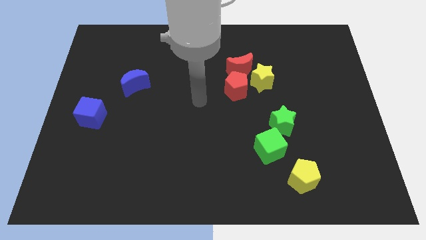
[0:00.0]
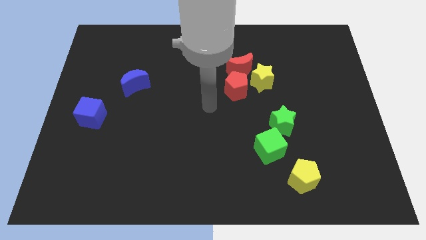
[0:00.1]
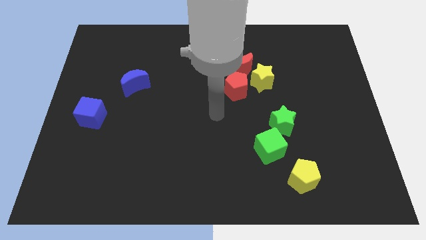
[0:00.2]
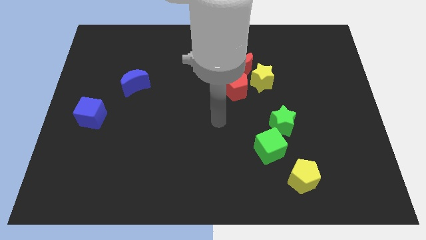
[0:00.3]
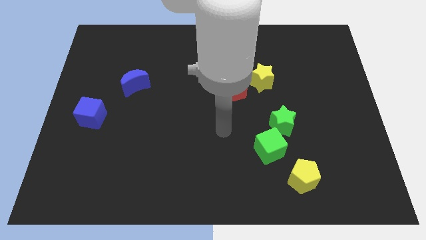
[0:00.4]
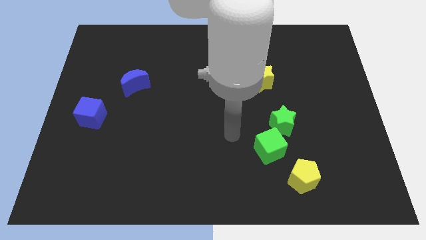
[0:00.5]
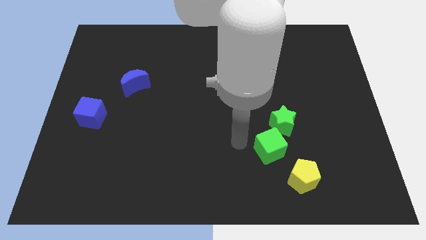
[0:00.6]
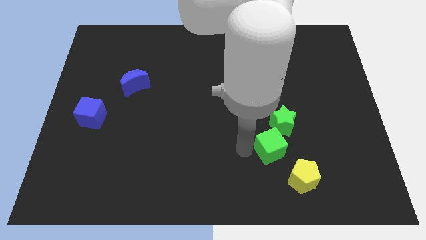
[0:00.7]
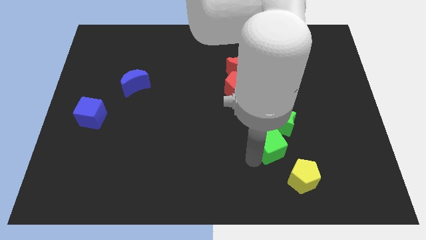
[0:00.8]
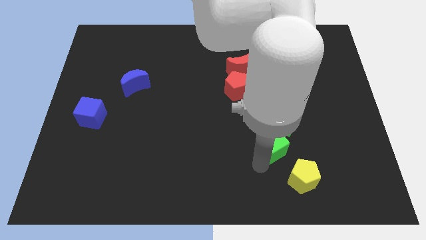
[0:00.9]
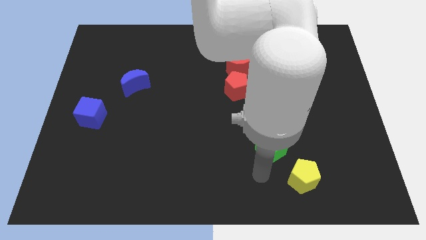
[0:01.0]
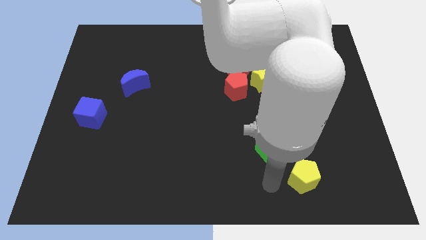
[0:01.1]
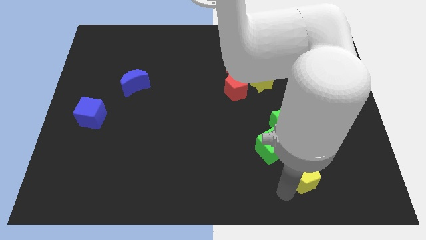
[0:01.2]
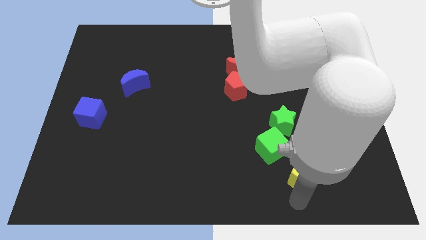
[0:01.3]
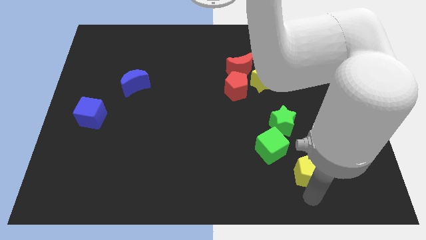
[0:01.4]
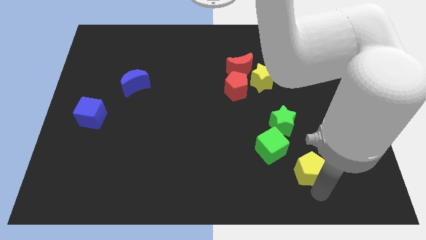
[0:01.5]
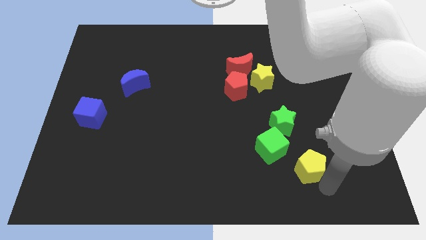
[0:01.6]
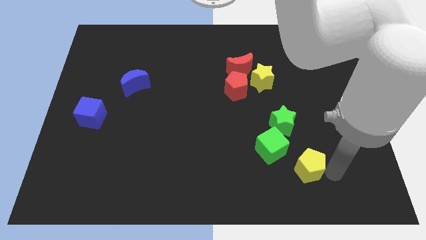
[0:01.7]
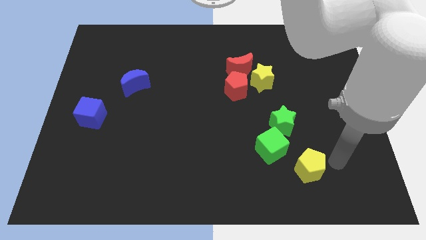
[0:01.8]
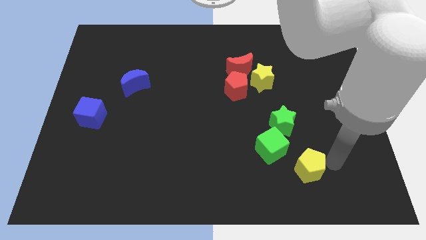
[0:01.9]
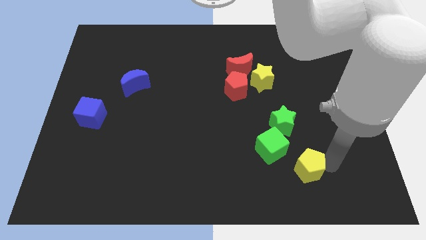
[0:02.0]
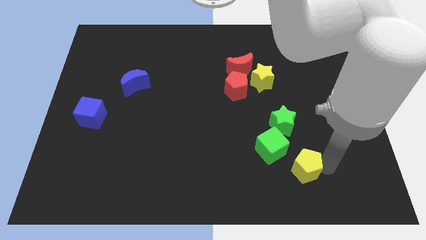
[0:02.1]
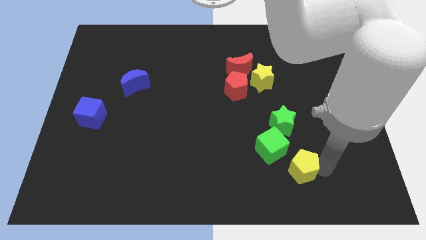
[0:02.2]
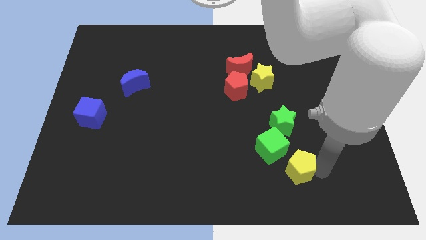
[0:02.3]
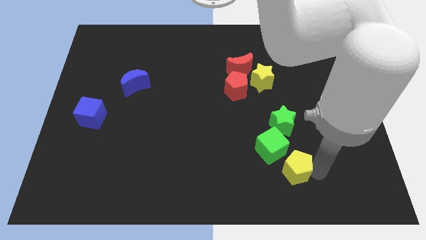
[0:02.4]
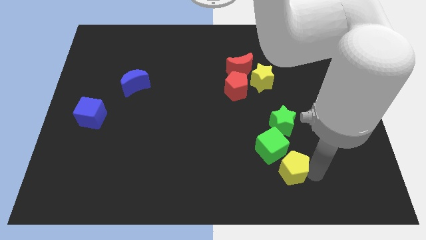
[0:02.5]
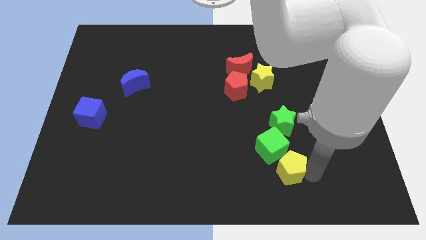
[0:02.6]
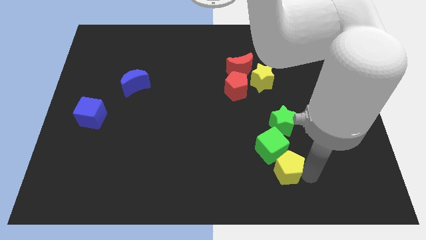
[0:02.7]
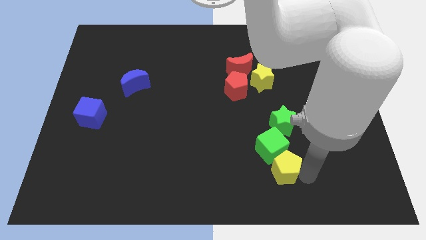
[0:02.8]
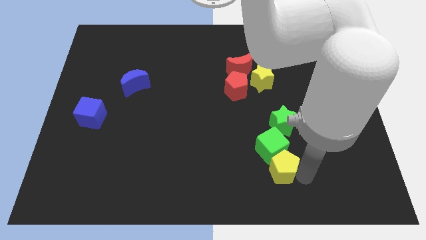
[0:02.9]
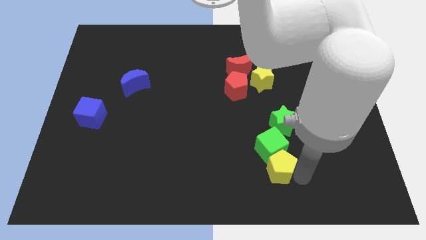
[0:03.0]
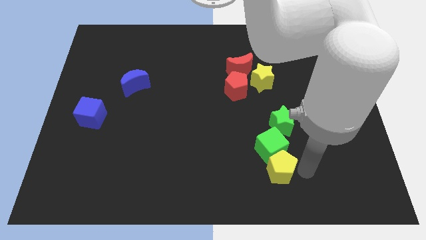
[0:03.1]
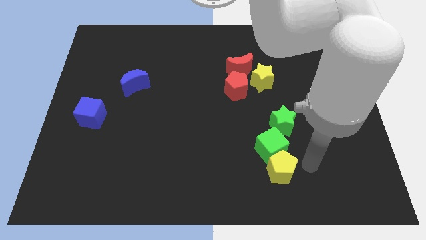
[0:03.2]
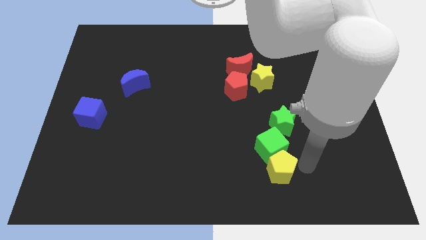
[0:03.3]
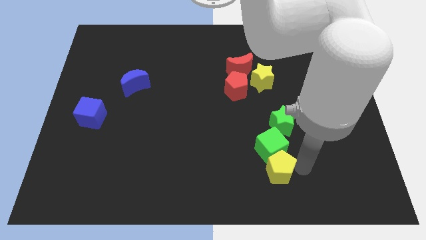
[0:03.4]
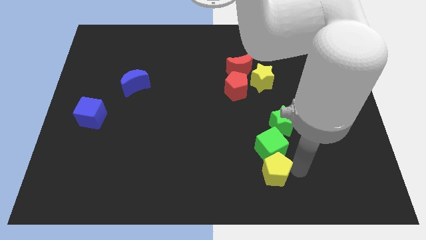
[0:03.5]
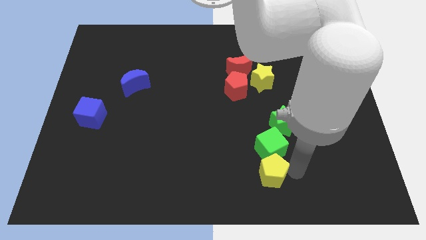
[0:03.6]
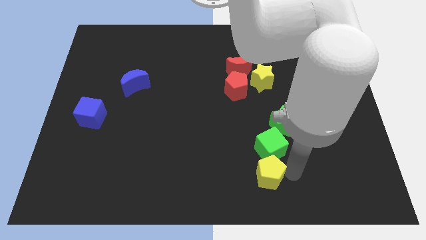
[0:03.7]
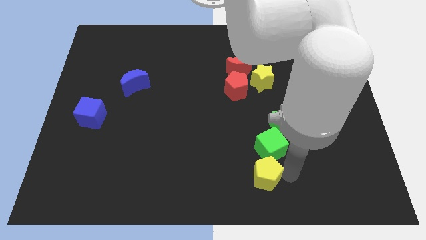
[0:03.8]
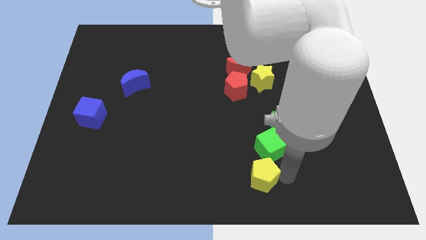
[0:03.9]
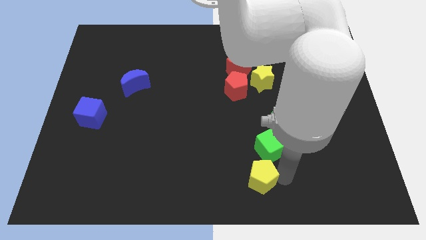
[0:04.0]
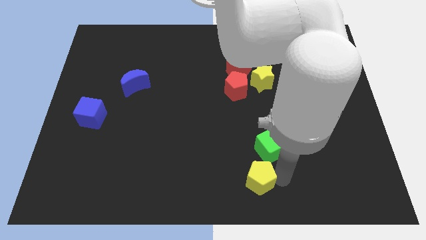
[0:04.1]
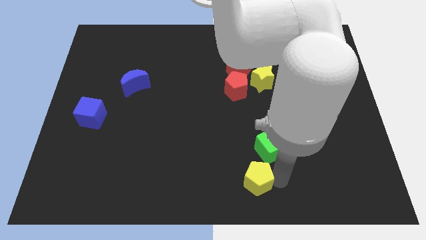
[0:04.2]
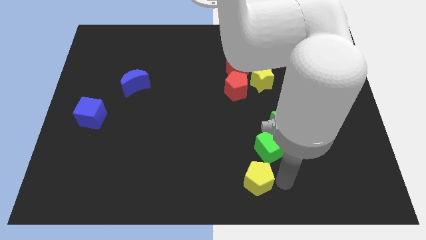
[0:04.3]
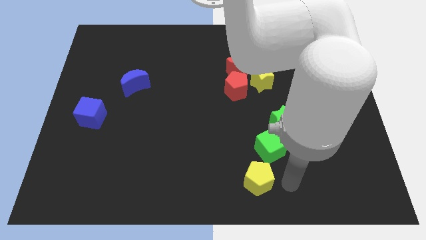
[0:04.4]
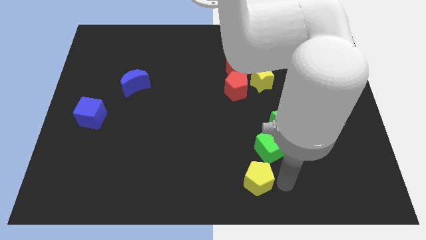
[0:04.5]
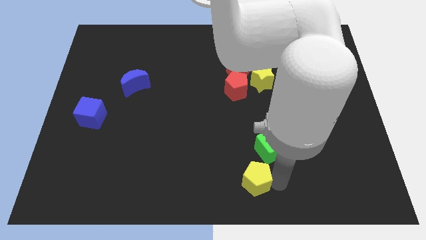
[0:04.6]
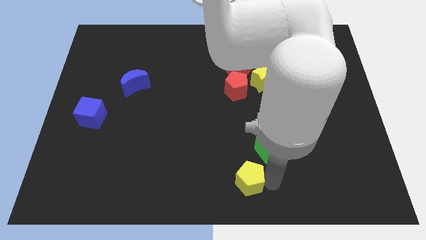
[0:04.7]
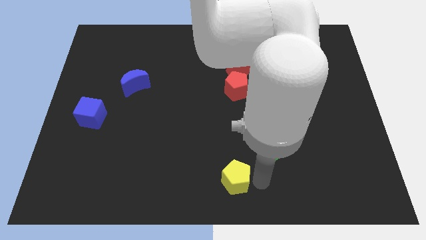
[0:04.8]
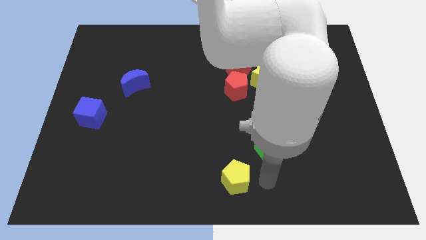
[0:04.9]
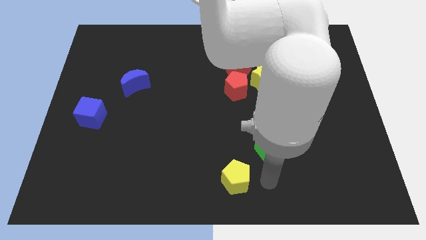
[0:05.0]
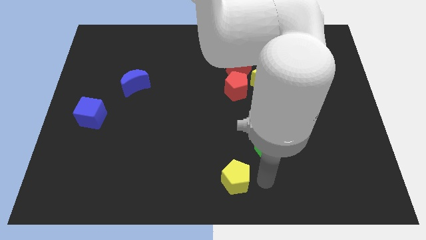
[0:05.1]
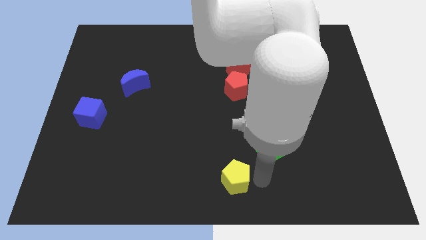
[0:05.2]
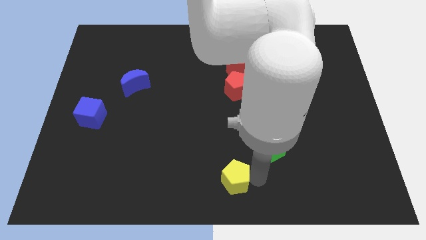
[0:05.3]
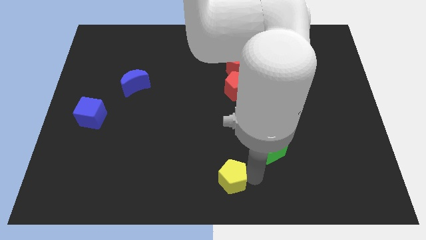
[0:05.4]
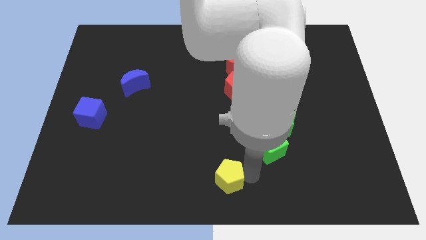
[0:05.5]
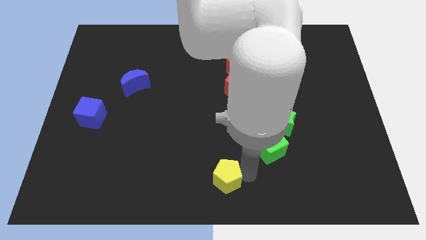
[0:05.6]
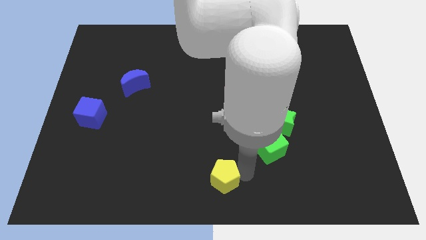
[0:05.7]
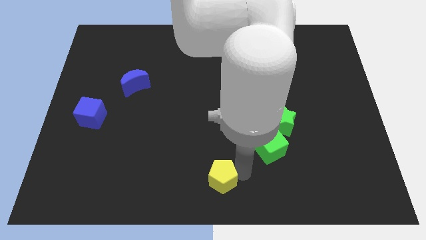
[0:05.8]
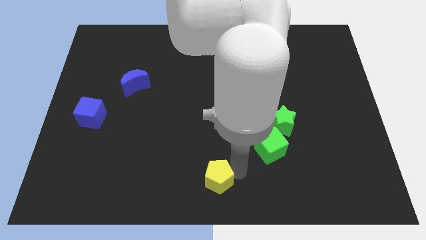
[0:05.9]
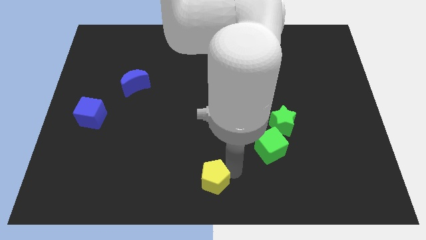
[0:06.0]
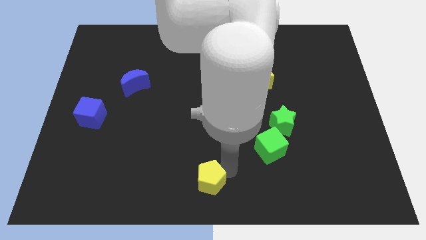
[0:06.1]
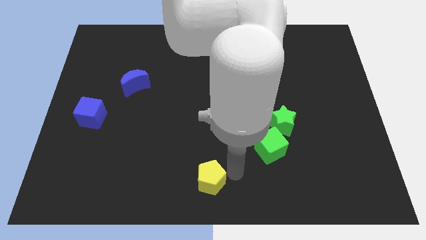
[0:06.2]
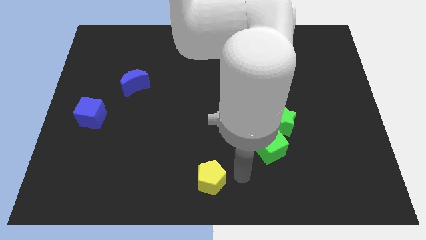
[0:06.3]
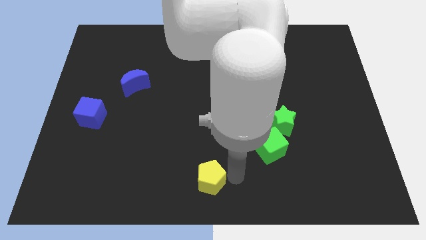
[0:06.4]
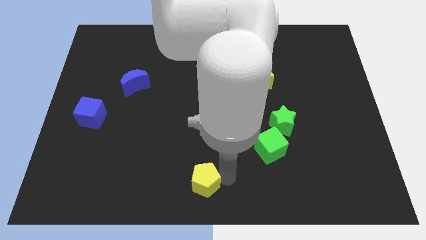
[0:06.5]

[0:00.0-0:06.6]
move the yellow pentagon left

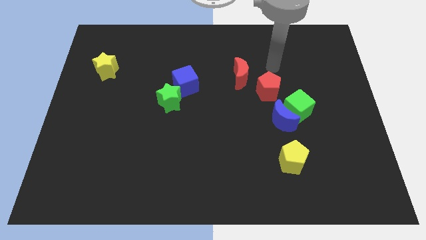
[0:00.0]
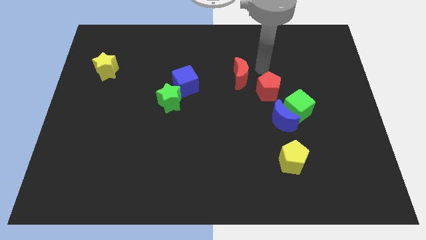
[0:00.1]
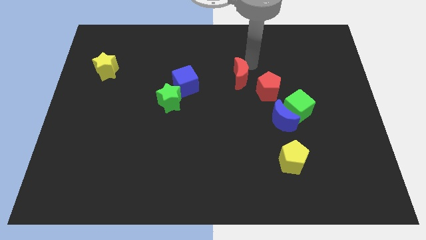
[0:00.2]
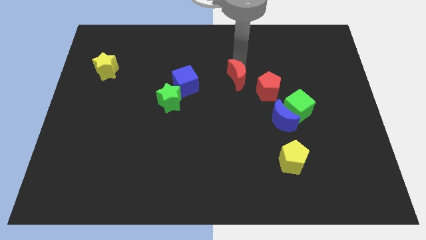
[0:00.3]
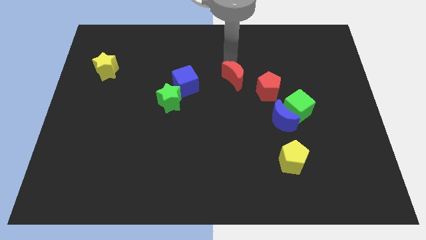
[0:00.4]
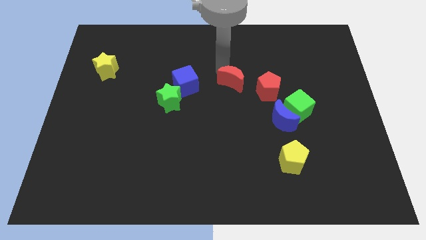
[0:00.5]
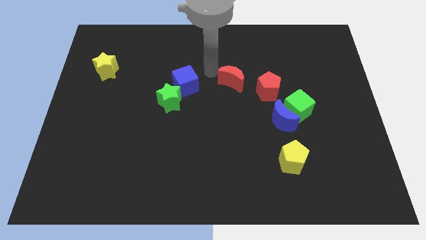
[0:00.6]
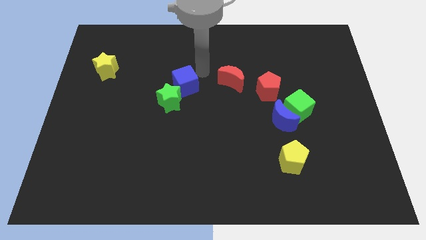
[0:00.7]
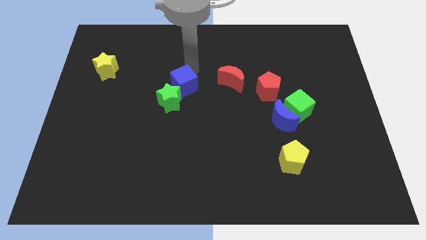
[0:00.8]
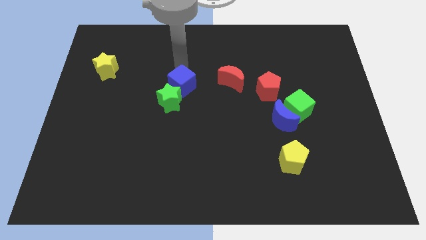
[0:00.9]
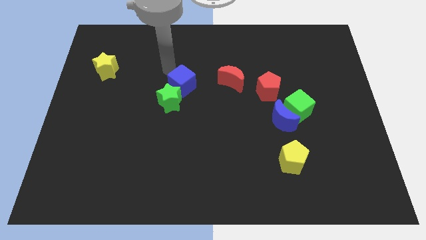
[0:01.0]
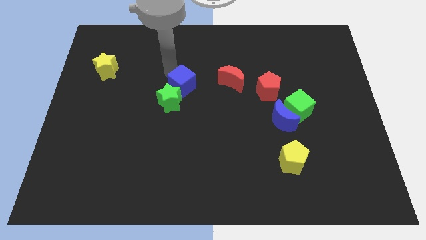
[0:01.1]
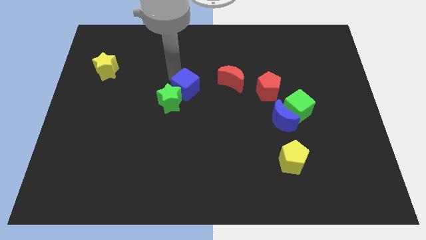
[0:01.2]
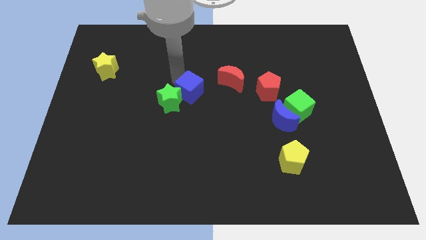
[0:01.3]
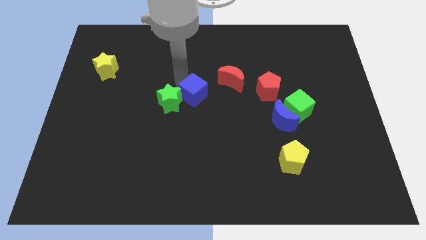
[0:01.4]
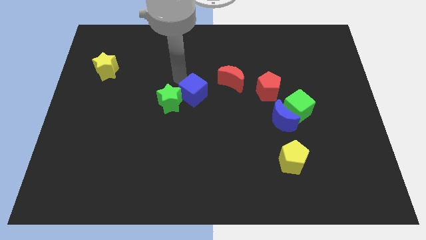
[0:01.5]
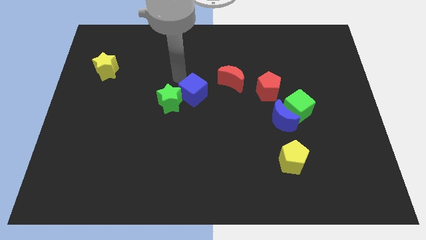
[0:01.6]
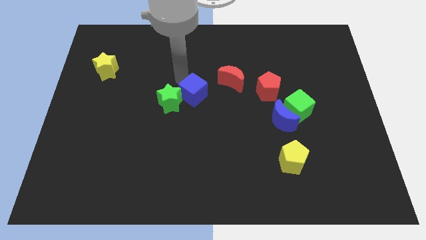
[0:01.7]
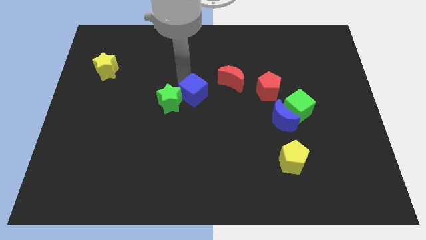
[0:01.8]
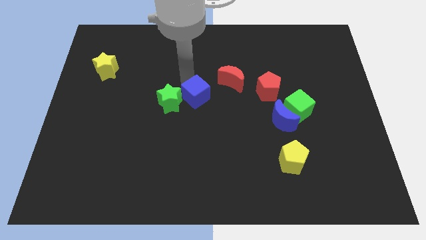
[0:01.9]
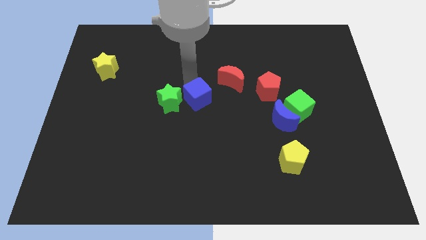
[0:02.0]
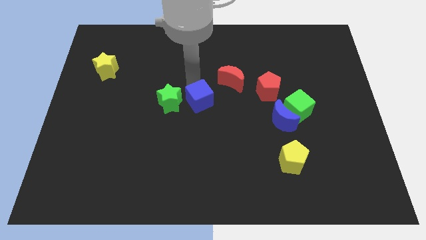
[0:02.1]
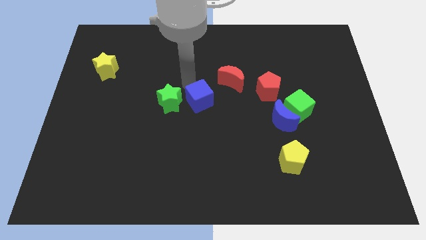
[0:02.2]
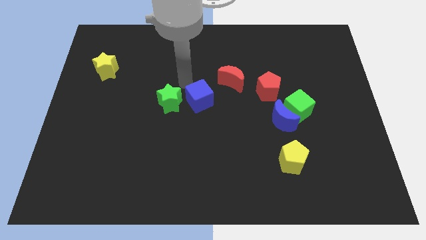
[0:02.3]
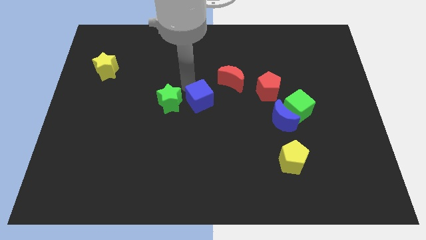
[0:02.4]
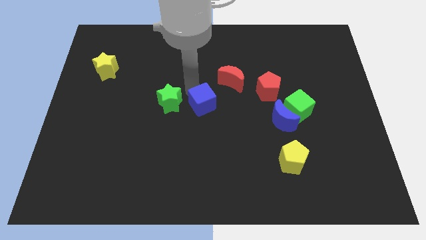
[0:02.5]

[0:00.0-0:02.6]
slightly slide the blue cube downwards and to the right
